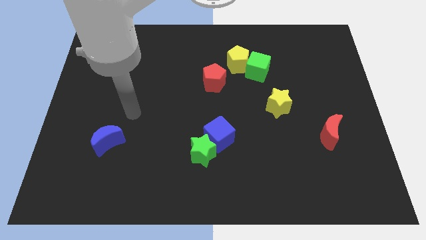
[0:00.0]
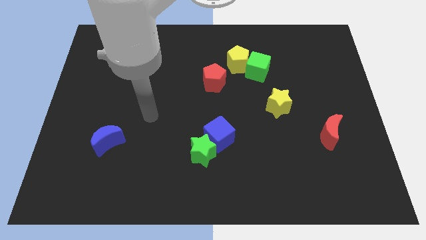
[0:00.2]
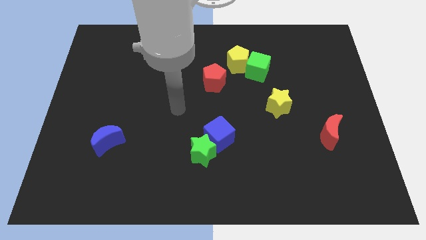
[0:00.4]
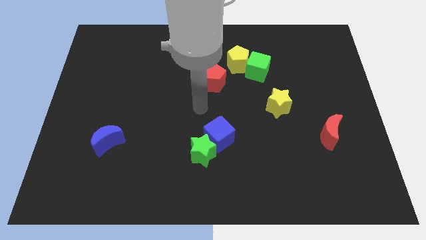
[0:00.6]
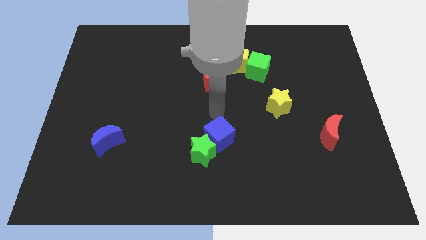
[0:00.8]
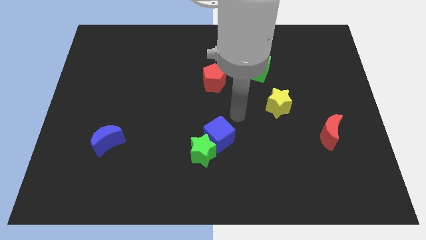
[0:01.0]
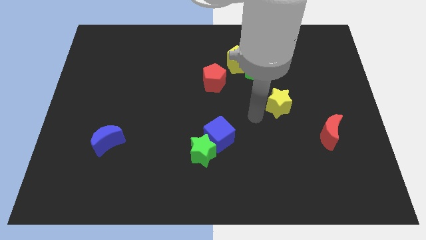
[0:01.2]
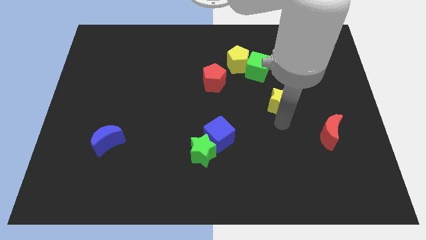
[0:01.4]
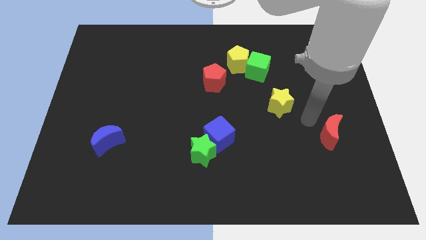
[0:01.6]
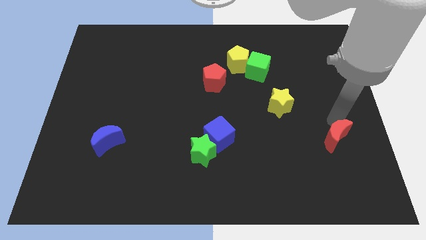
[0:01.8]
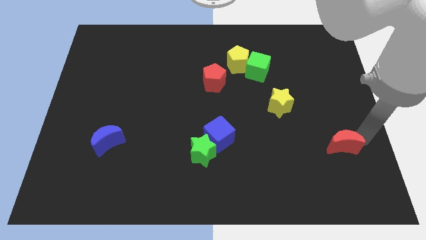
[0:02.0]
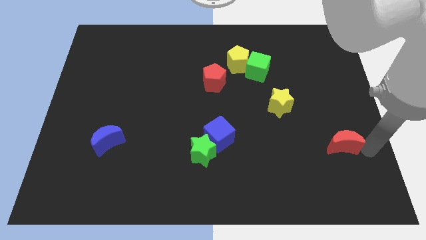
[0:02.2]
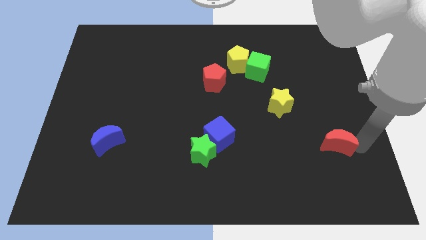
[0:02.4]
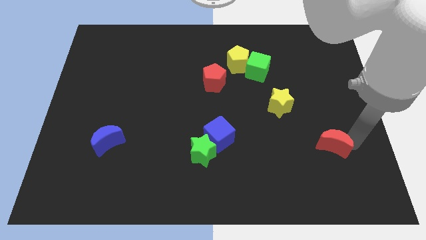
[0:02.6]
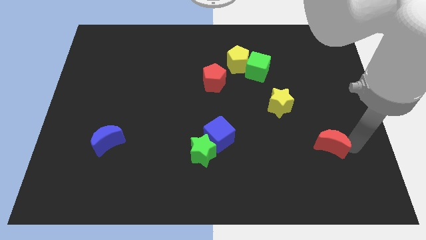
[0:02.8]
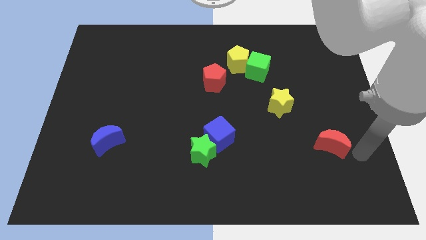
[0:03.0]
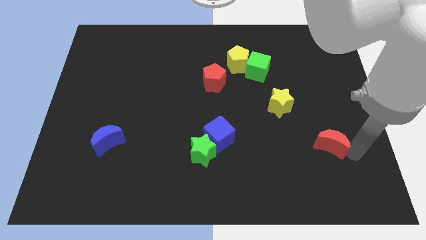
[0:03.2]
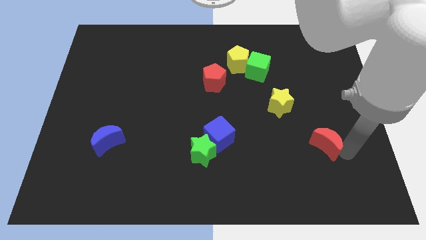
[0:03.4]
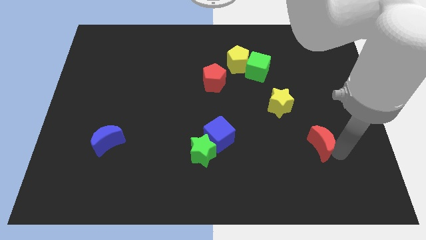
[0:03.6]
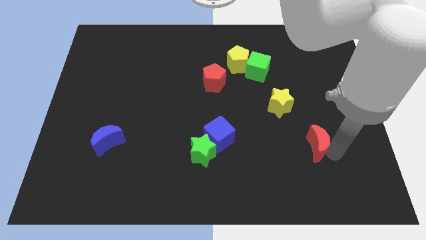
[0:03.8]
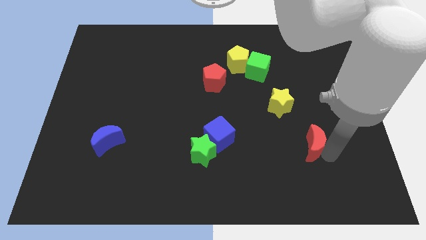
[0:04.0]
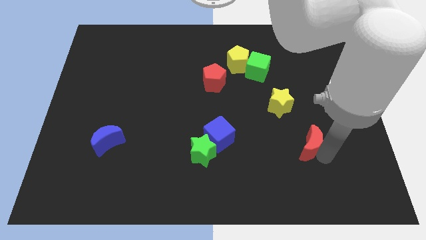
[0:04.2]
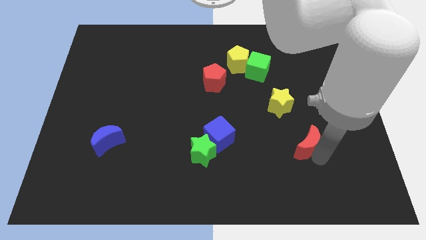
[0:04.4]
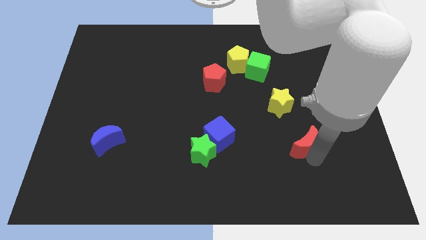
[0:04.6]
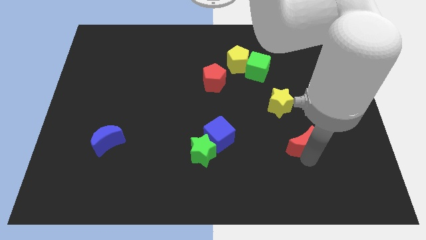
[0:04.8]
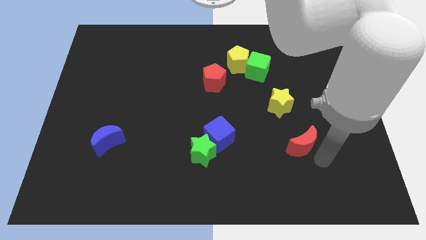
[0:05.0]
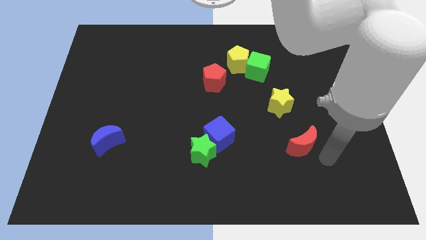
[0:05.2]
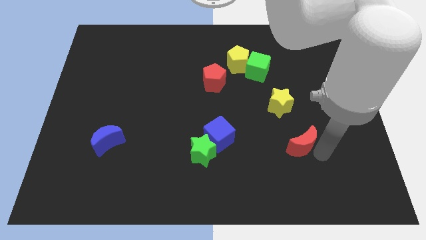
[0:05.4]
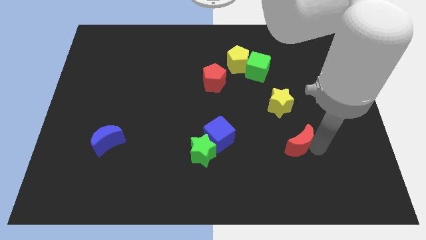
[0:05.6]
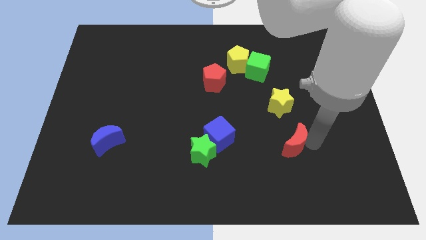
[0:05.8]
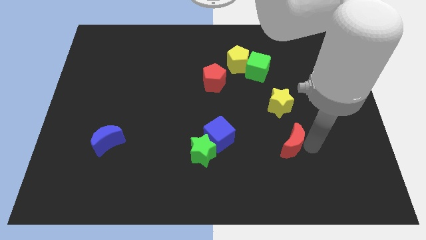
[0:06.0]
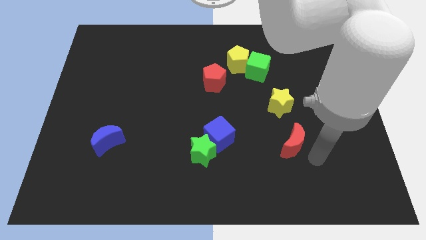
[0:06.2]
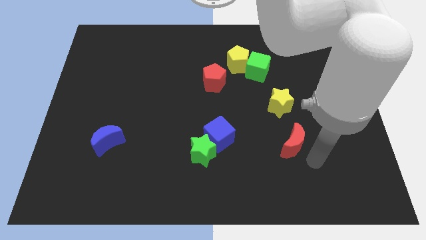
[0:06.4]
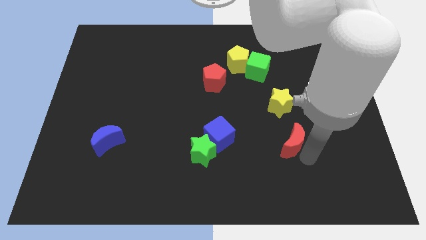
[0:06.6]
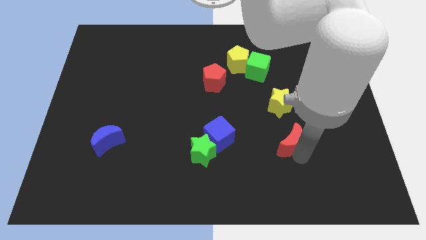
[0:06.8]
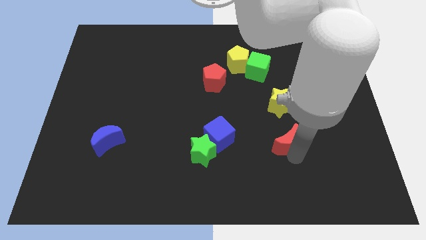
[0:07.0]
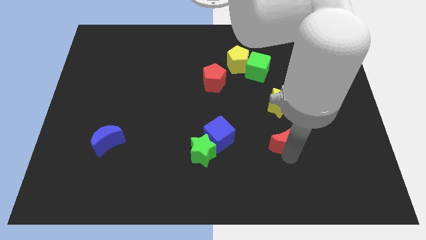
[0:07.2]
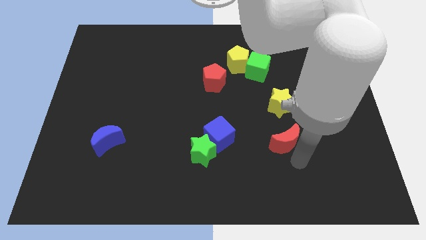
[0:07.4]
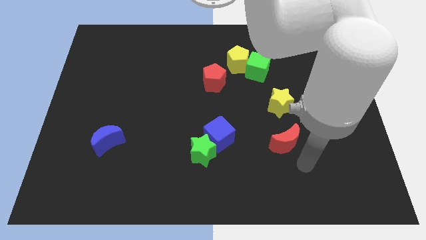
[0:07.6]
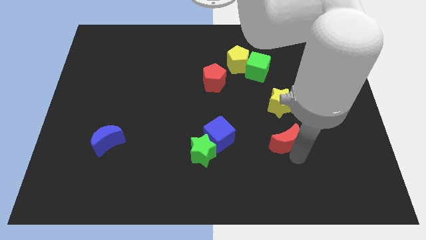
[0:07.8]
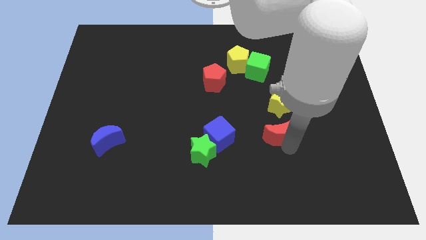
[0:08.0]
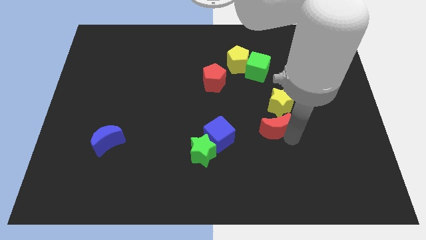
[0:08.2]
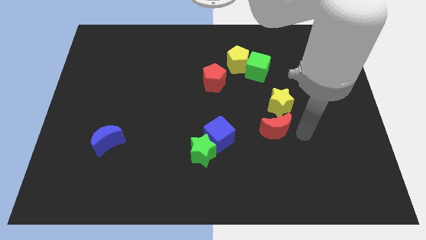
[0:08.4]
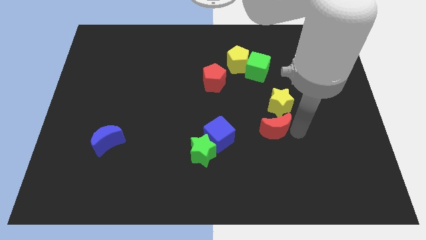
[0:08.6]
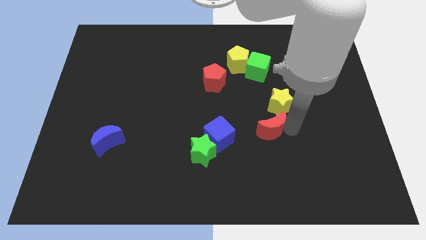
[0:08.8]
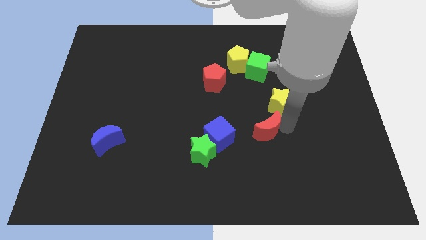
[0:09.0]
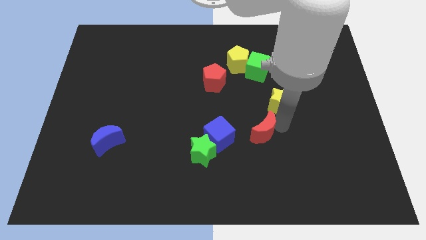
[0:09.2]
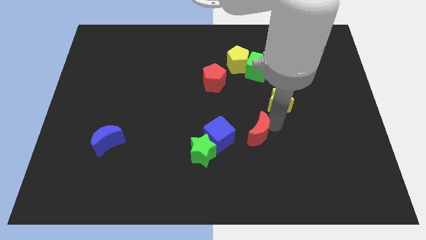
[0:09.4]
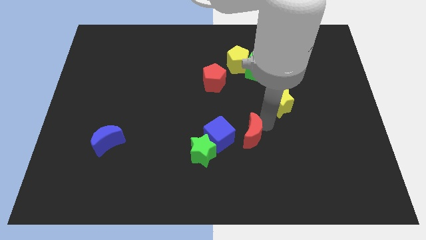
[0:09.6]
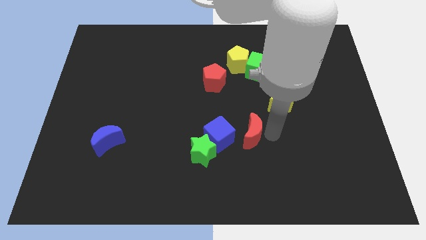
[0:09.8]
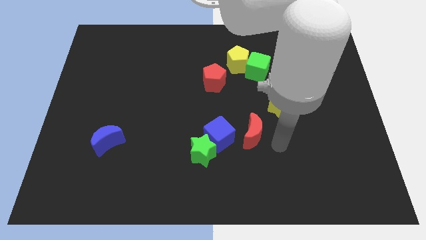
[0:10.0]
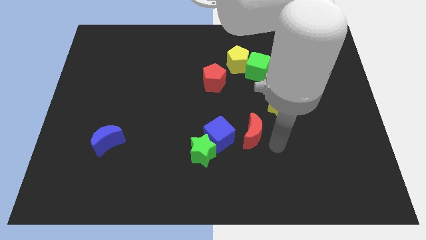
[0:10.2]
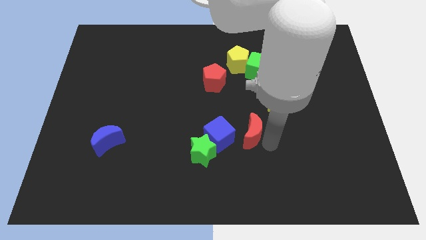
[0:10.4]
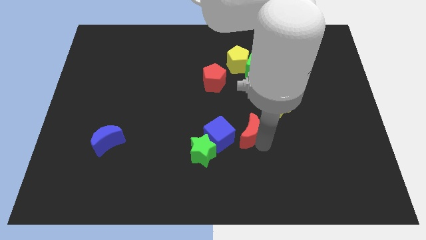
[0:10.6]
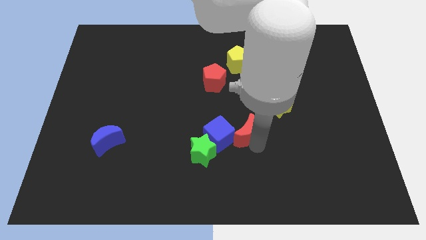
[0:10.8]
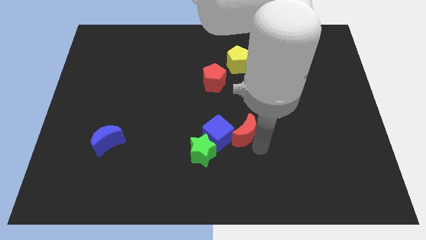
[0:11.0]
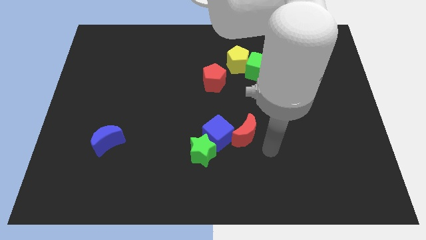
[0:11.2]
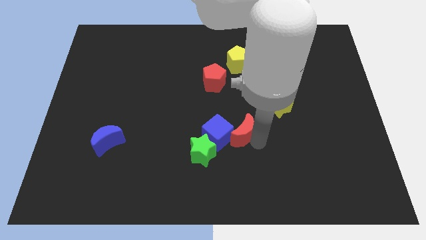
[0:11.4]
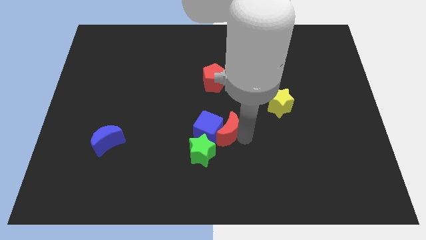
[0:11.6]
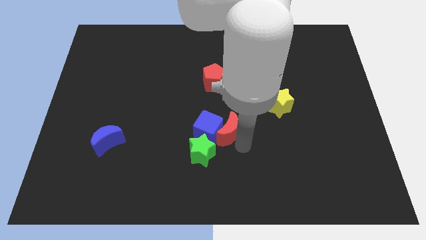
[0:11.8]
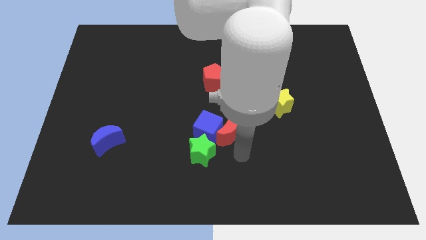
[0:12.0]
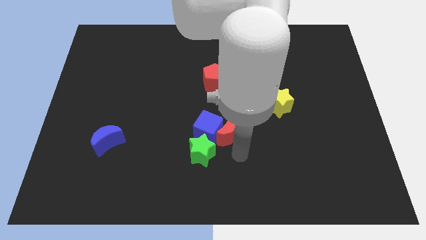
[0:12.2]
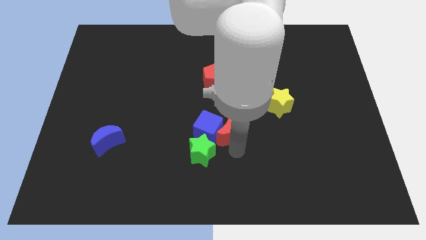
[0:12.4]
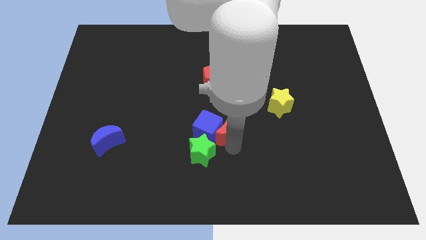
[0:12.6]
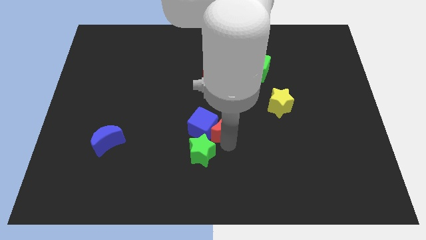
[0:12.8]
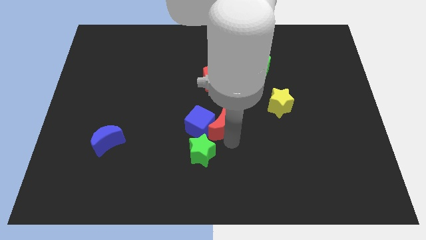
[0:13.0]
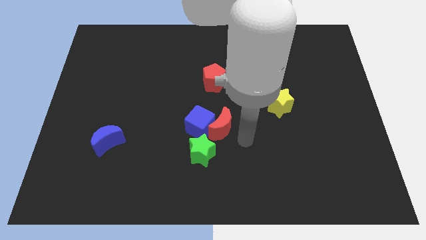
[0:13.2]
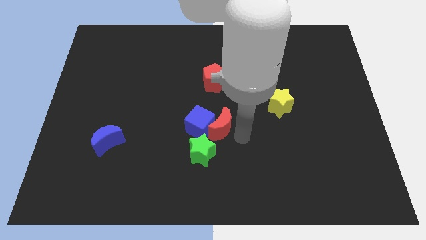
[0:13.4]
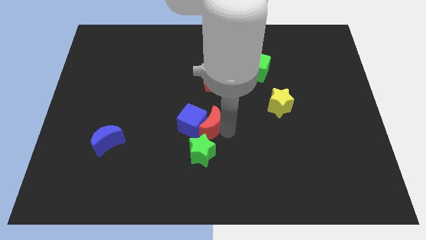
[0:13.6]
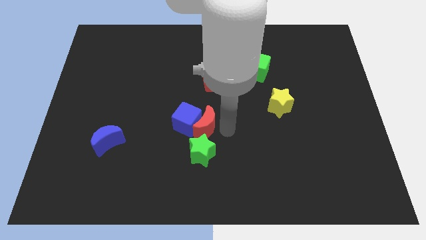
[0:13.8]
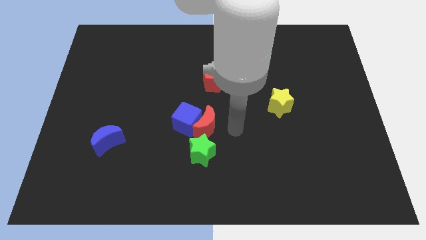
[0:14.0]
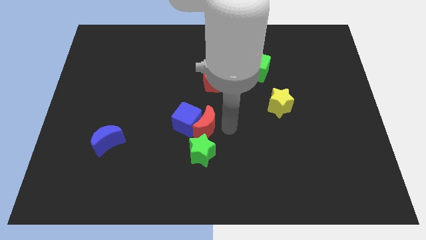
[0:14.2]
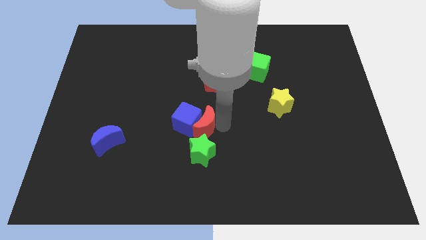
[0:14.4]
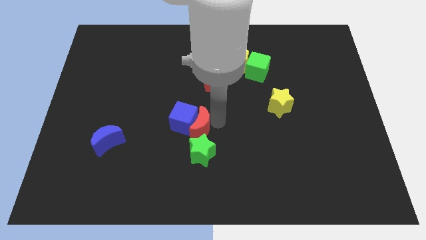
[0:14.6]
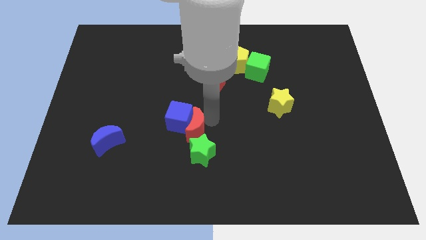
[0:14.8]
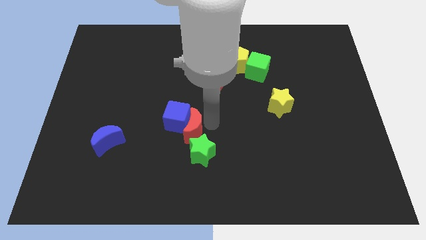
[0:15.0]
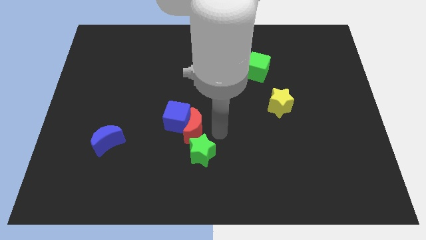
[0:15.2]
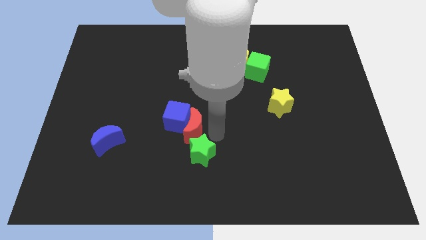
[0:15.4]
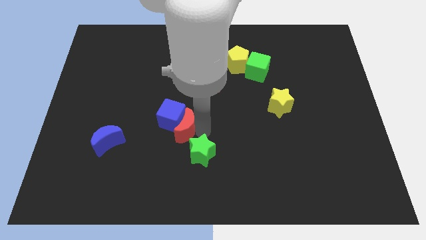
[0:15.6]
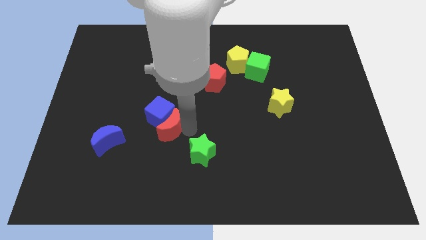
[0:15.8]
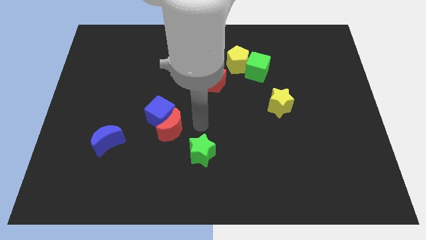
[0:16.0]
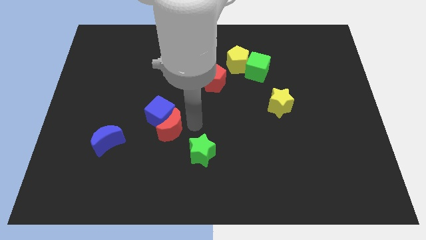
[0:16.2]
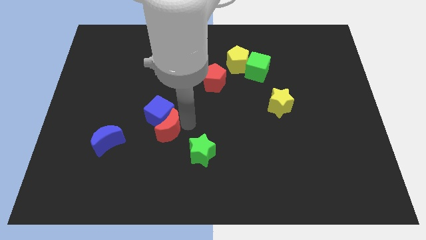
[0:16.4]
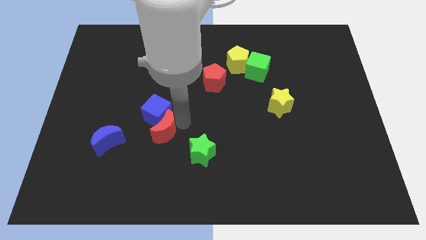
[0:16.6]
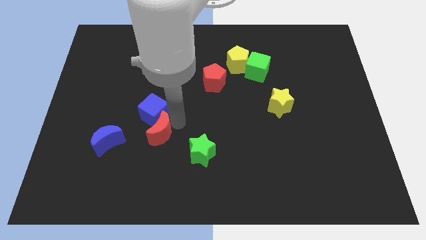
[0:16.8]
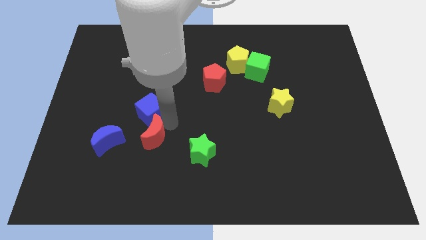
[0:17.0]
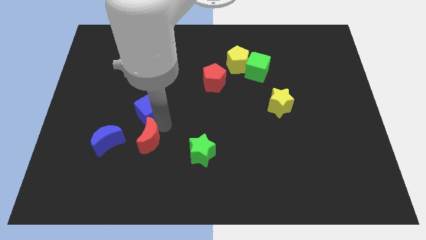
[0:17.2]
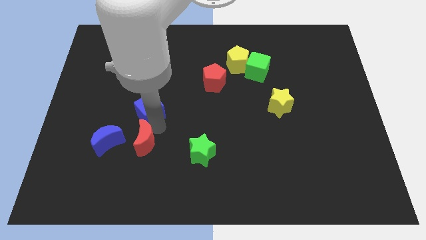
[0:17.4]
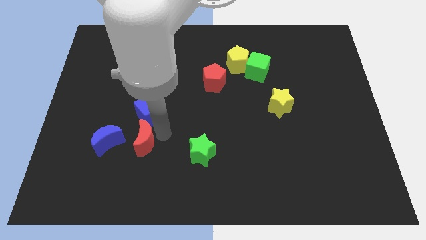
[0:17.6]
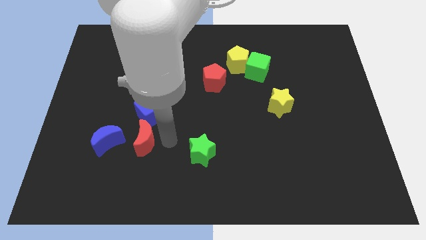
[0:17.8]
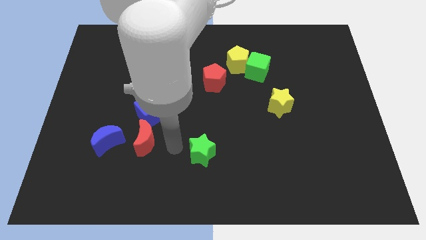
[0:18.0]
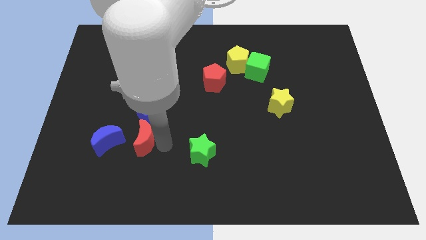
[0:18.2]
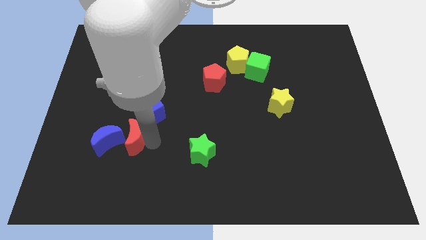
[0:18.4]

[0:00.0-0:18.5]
slide the red moon close to the blue moon
